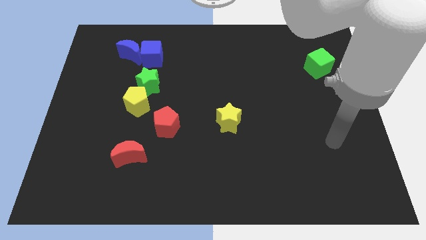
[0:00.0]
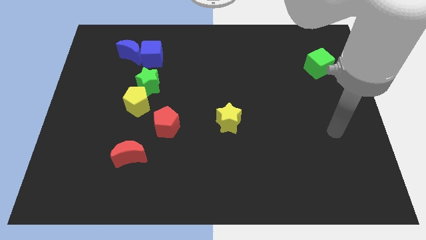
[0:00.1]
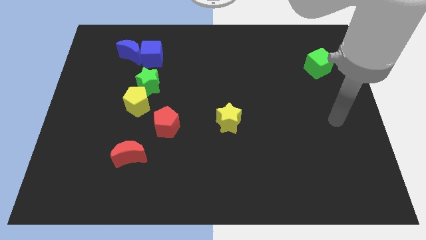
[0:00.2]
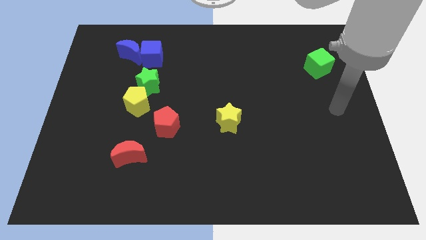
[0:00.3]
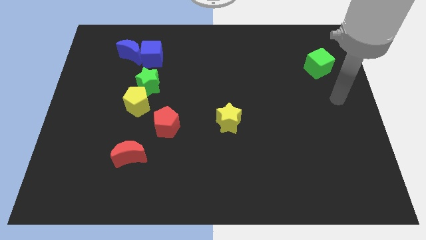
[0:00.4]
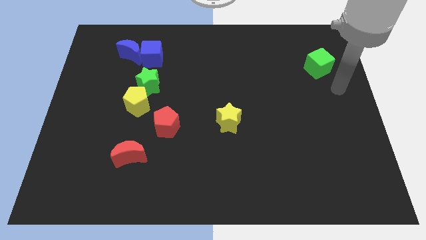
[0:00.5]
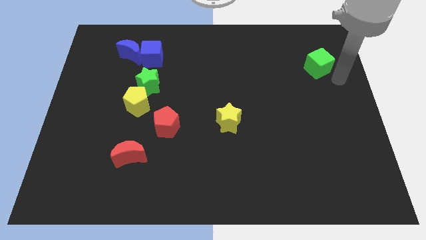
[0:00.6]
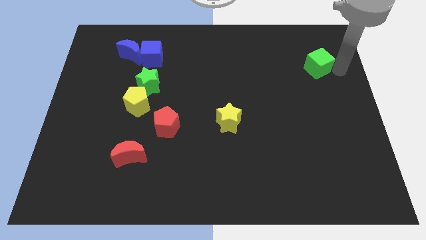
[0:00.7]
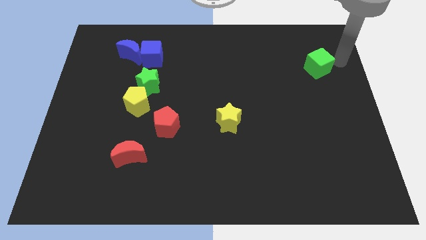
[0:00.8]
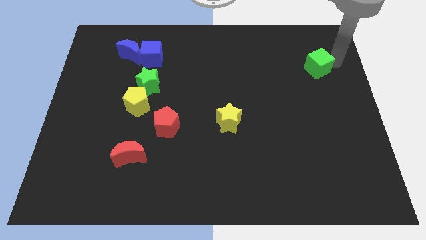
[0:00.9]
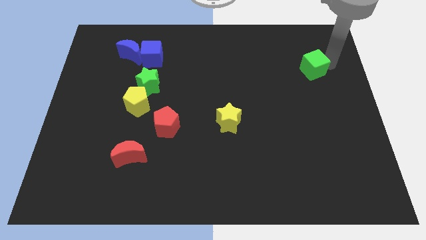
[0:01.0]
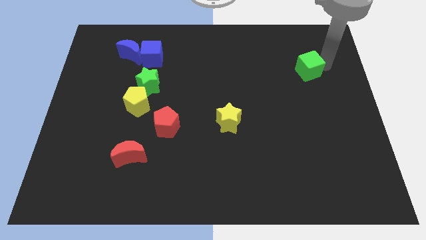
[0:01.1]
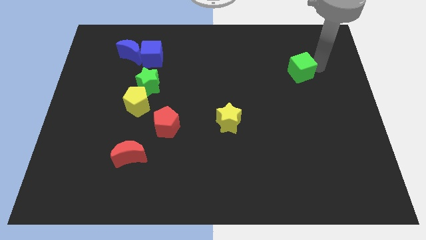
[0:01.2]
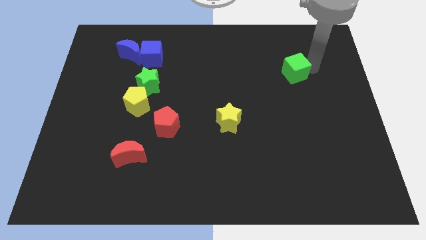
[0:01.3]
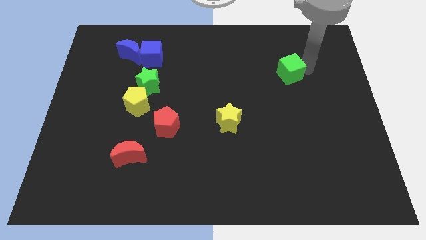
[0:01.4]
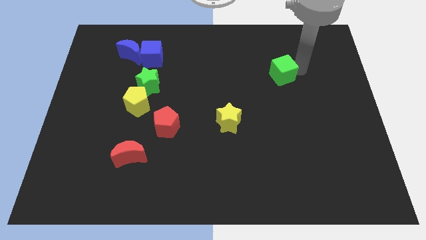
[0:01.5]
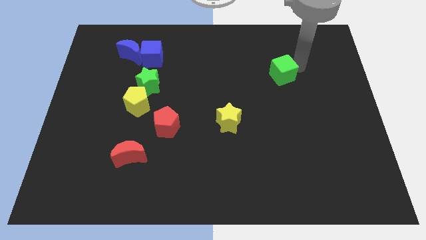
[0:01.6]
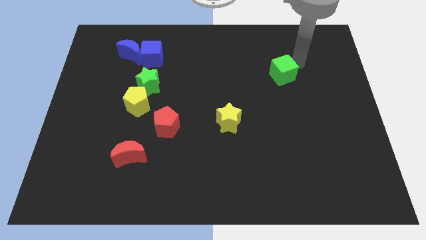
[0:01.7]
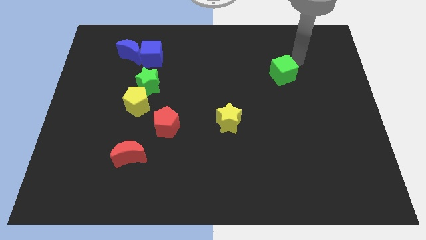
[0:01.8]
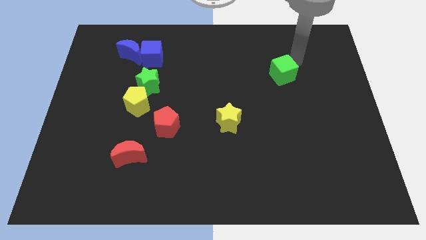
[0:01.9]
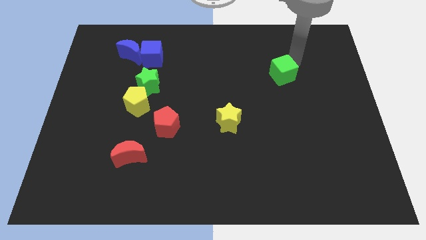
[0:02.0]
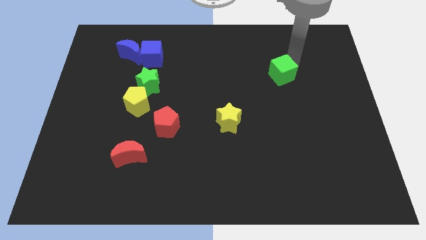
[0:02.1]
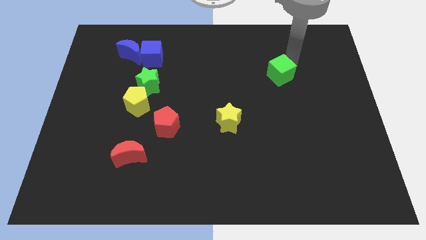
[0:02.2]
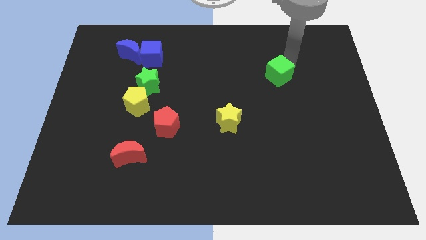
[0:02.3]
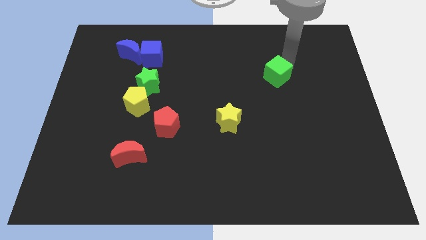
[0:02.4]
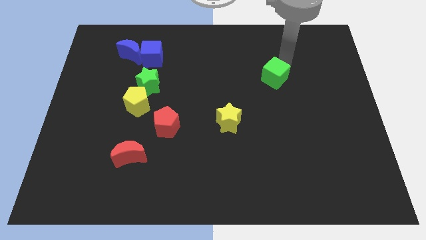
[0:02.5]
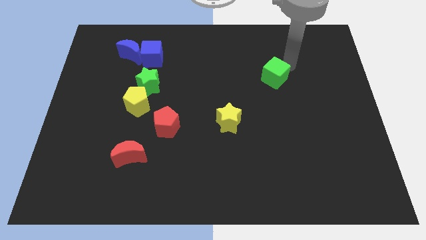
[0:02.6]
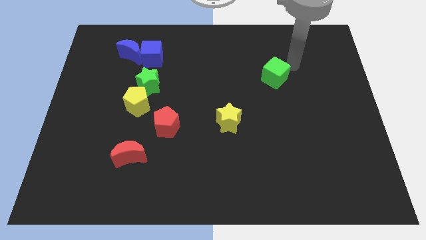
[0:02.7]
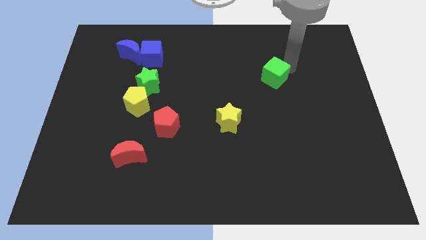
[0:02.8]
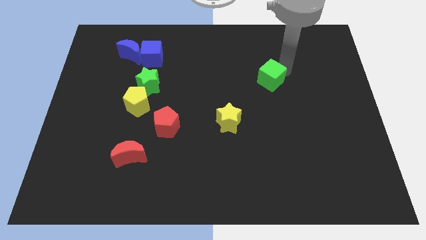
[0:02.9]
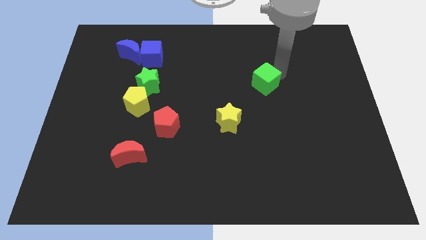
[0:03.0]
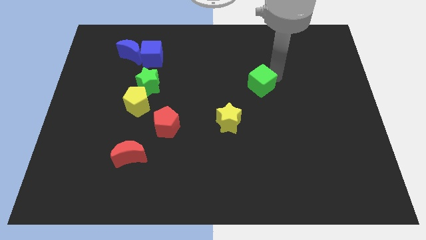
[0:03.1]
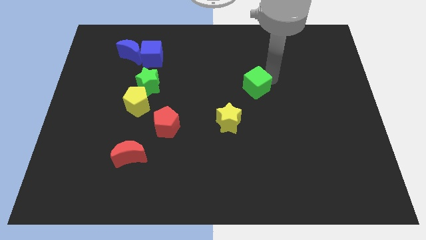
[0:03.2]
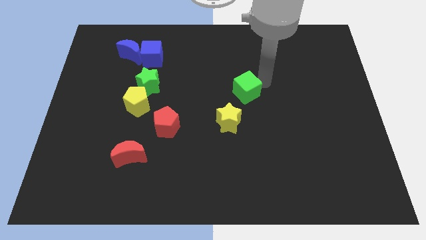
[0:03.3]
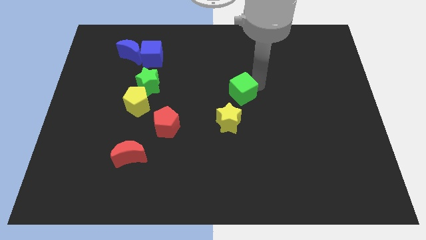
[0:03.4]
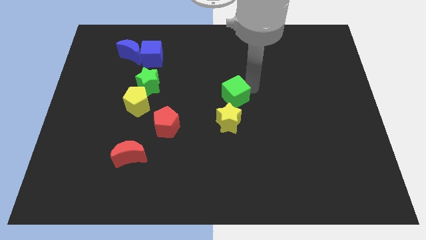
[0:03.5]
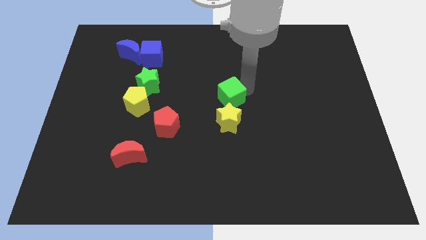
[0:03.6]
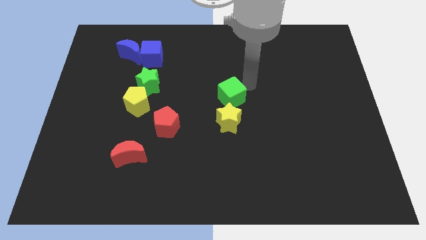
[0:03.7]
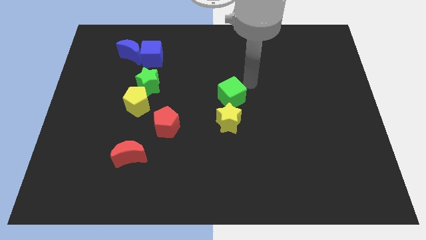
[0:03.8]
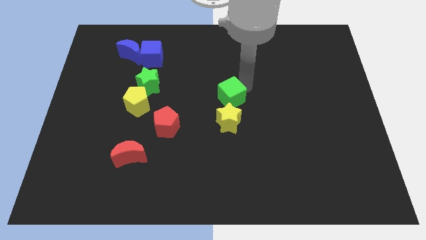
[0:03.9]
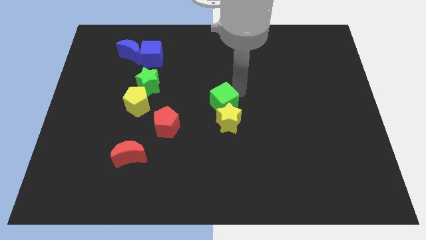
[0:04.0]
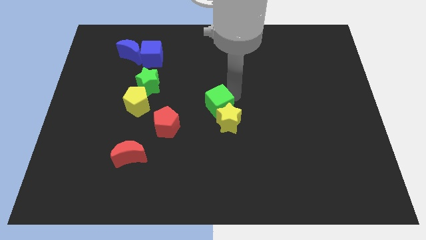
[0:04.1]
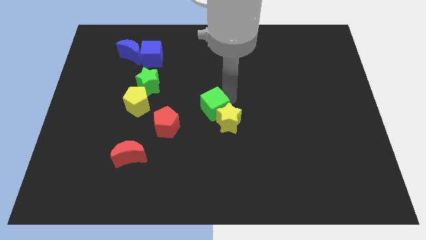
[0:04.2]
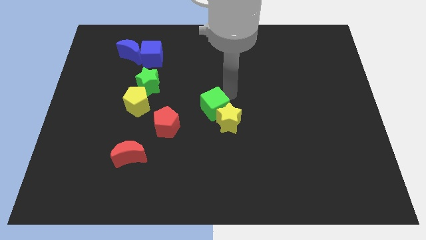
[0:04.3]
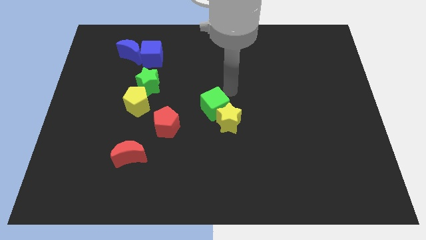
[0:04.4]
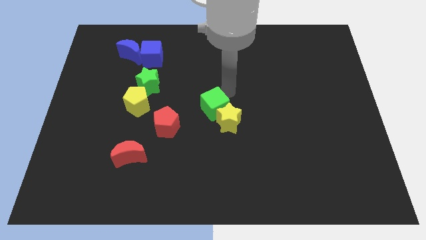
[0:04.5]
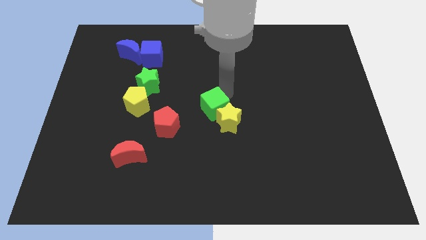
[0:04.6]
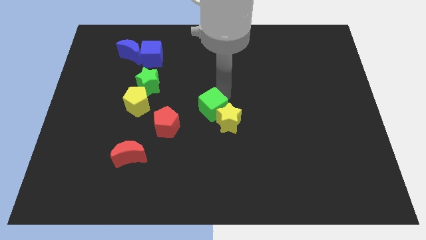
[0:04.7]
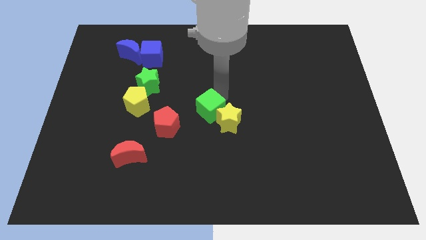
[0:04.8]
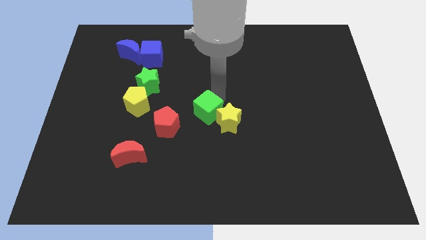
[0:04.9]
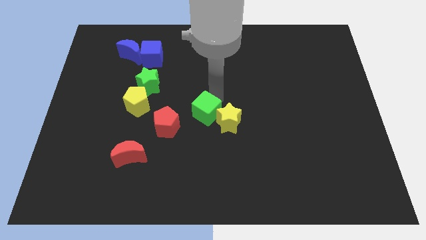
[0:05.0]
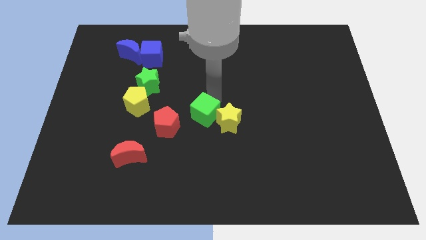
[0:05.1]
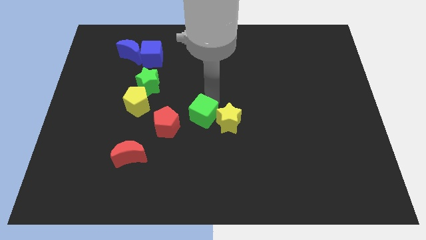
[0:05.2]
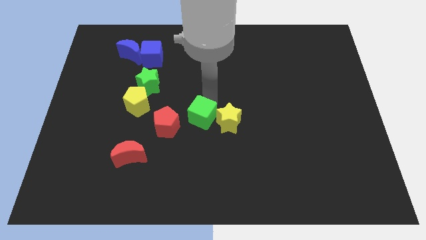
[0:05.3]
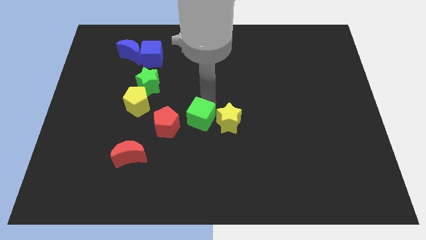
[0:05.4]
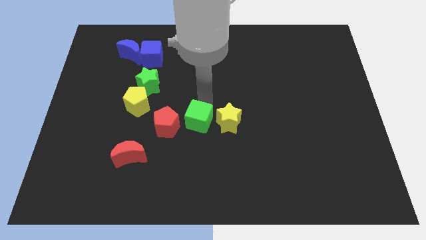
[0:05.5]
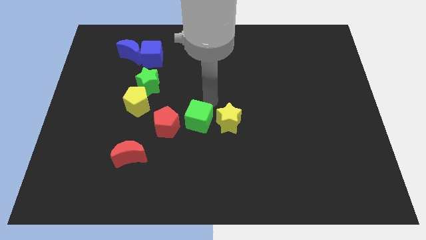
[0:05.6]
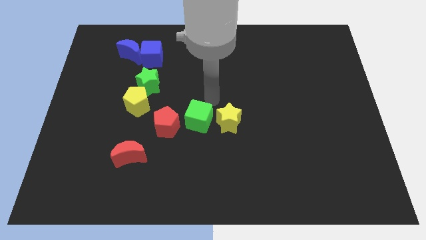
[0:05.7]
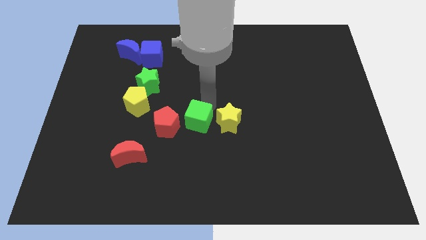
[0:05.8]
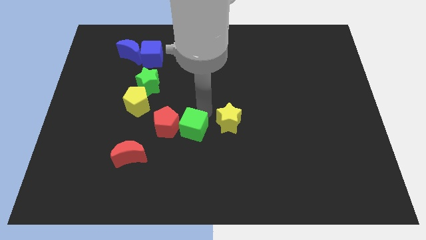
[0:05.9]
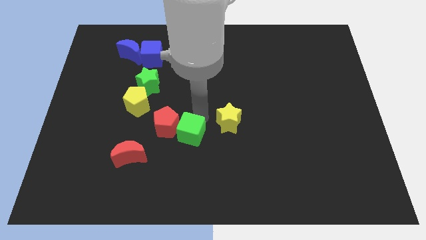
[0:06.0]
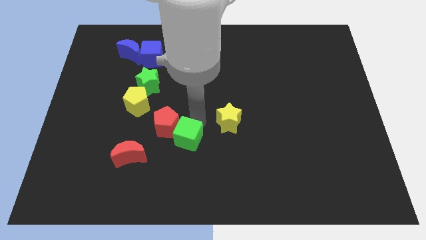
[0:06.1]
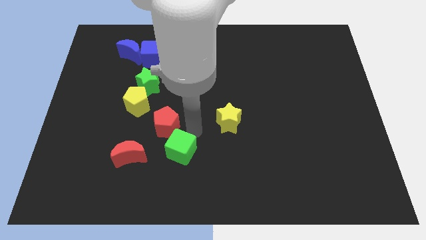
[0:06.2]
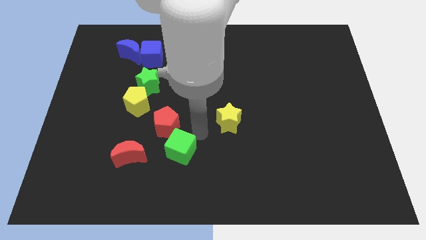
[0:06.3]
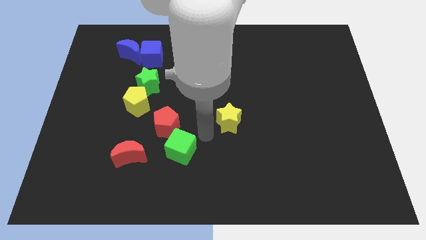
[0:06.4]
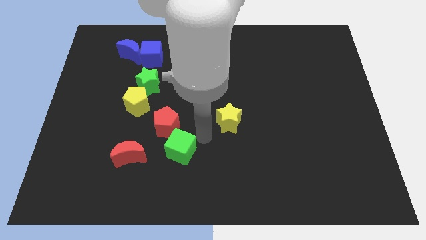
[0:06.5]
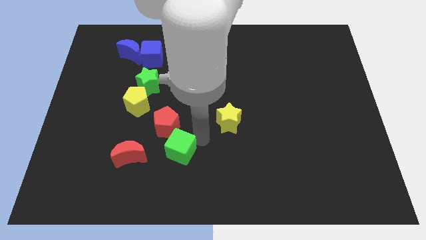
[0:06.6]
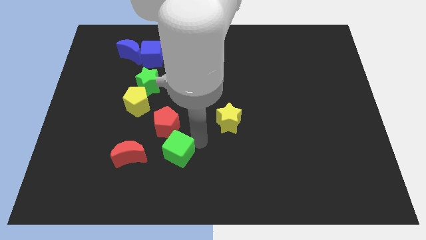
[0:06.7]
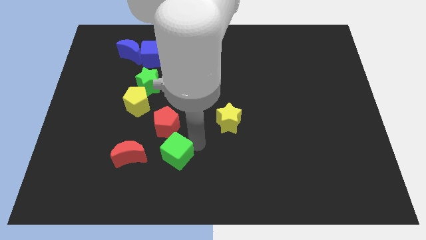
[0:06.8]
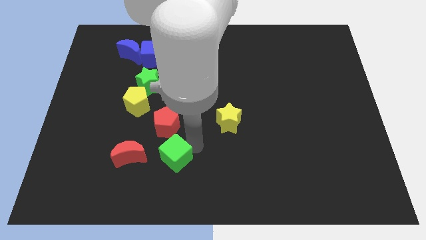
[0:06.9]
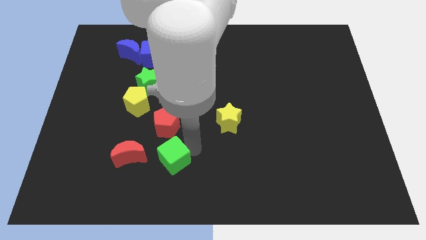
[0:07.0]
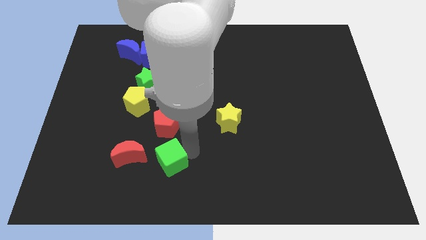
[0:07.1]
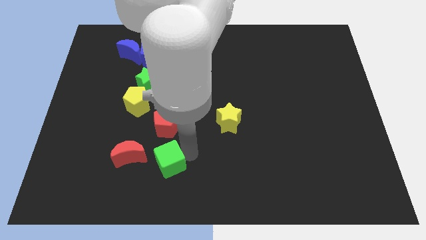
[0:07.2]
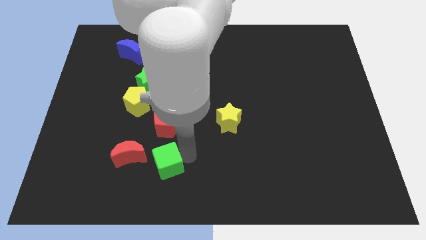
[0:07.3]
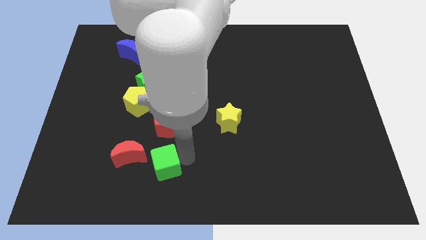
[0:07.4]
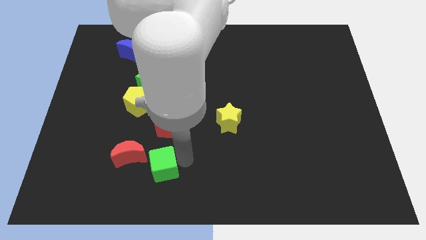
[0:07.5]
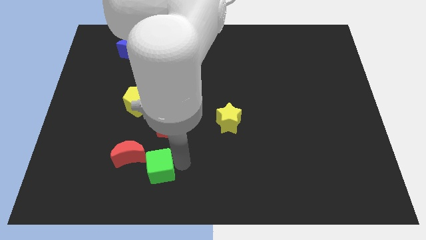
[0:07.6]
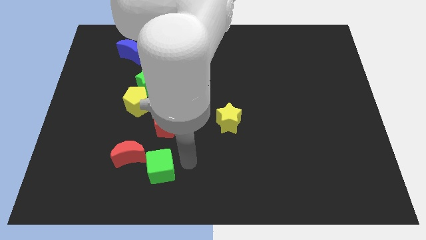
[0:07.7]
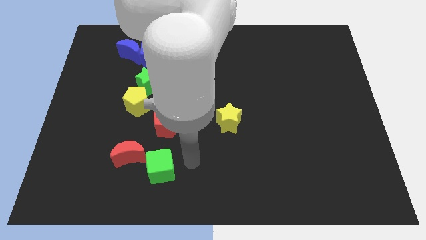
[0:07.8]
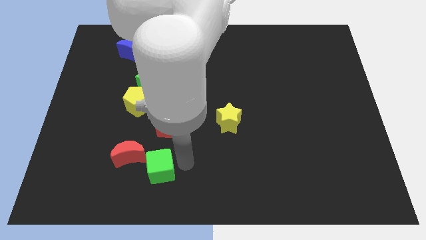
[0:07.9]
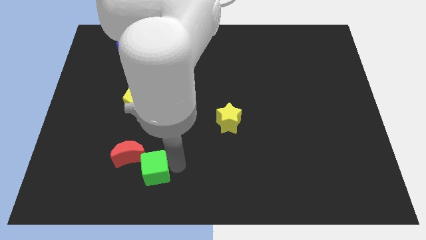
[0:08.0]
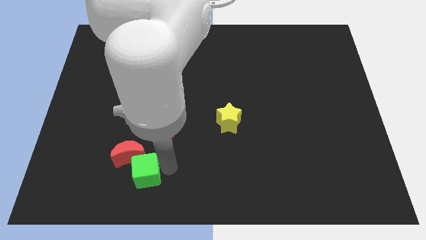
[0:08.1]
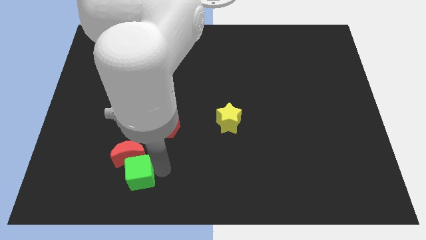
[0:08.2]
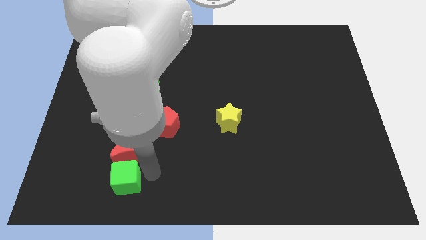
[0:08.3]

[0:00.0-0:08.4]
push the green cube diagonally down and to the left of the red moon
